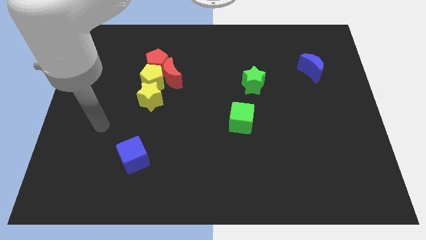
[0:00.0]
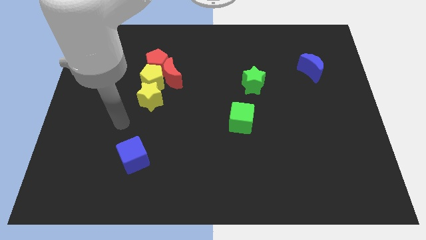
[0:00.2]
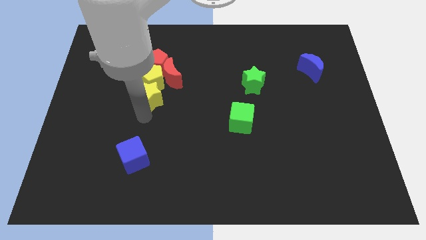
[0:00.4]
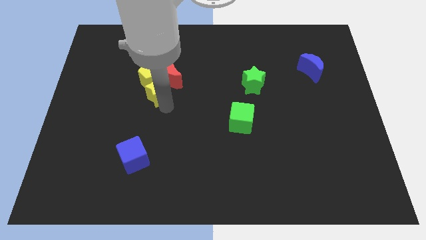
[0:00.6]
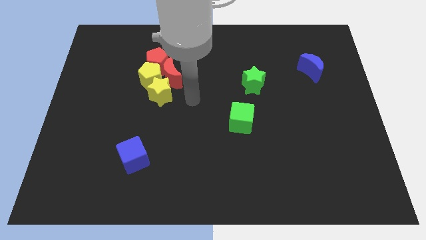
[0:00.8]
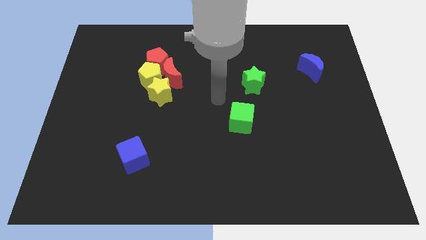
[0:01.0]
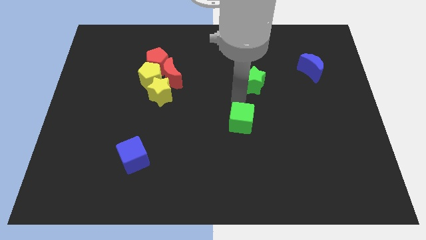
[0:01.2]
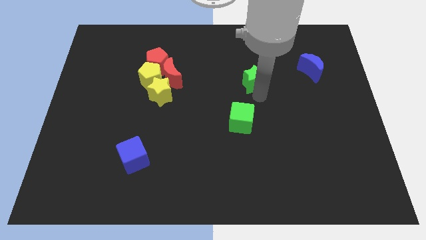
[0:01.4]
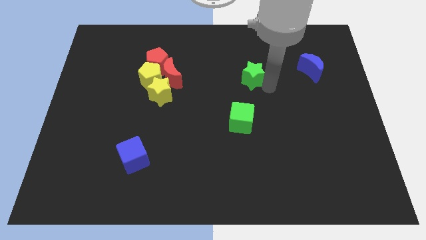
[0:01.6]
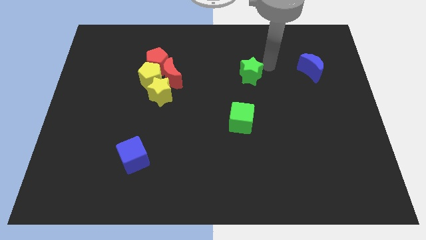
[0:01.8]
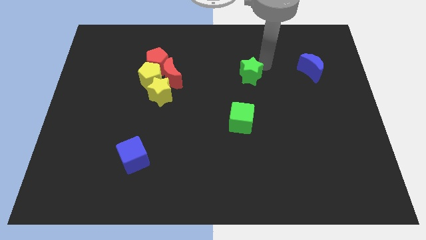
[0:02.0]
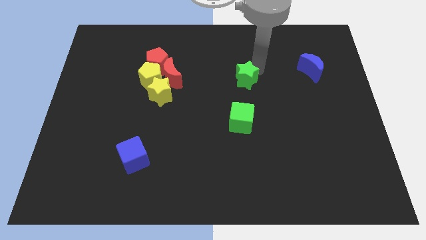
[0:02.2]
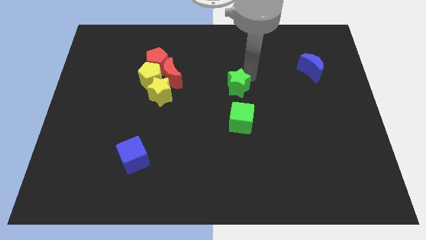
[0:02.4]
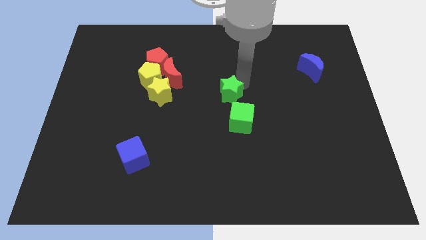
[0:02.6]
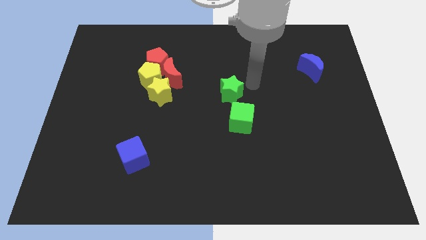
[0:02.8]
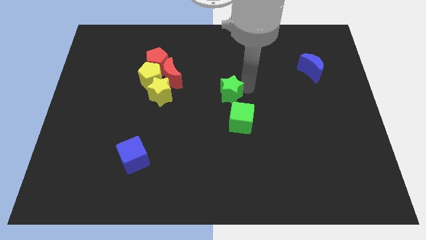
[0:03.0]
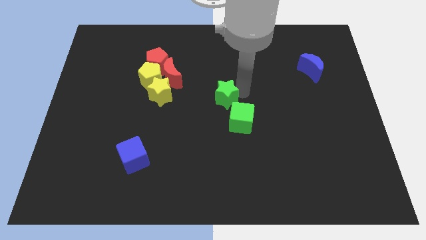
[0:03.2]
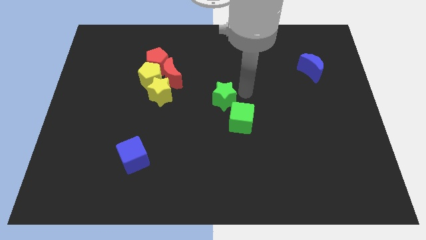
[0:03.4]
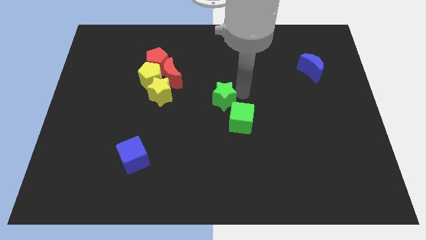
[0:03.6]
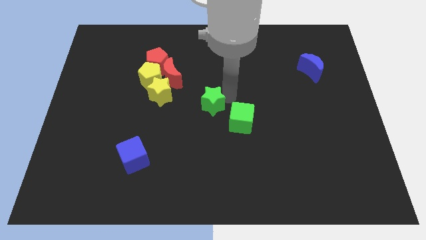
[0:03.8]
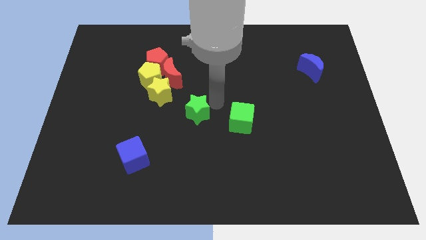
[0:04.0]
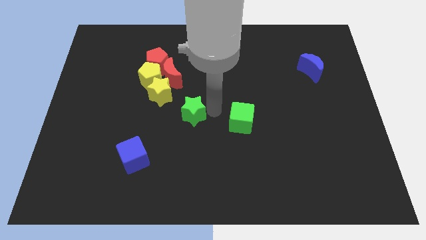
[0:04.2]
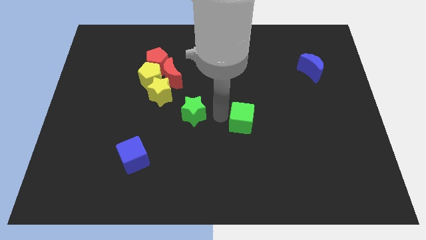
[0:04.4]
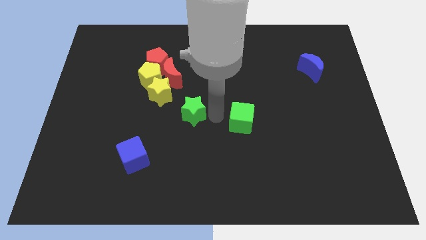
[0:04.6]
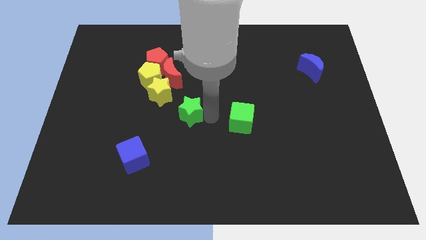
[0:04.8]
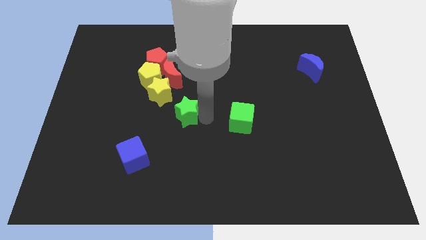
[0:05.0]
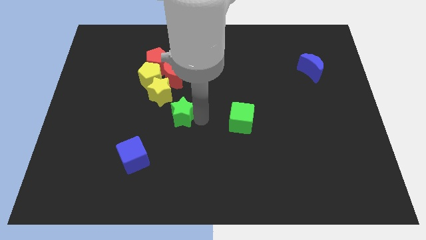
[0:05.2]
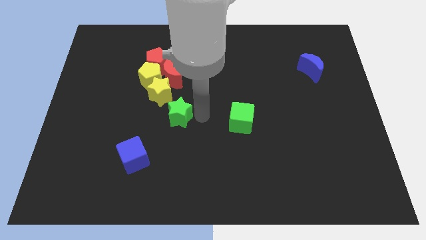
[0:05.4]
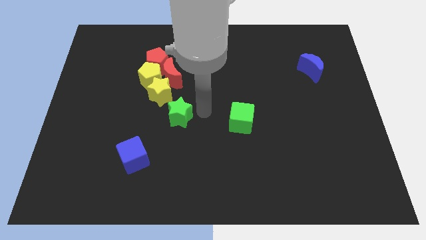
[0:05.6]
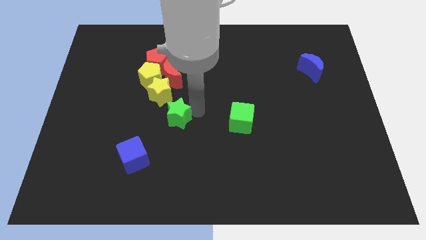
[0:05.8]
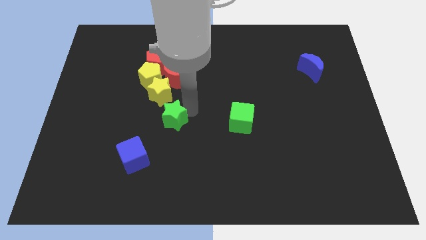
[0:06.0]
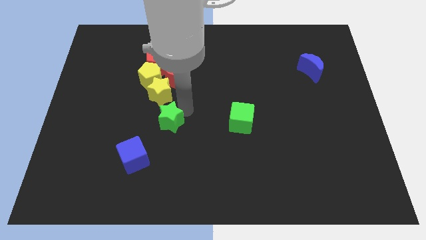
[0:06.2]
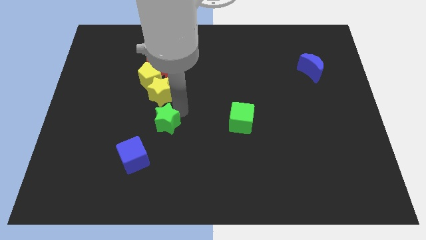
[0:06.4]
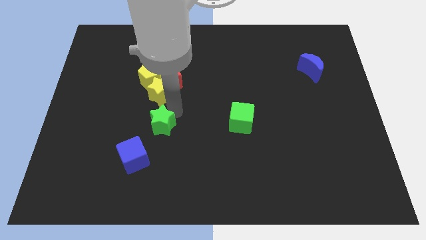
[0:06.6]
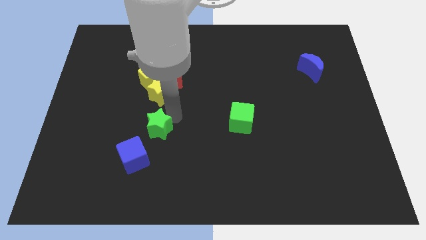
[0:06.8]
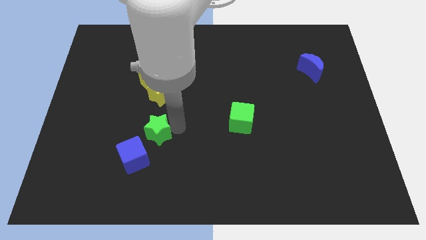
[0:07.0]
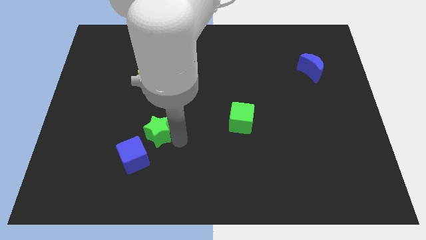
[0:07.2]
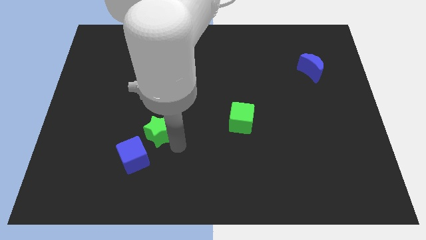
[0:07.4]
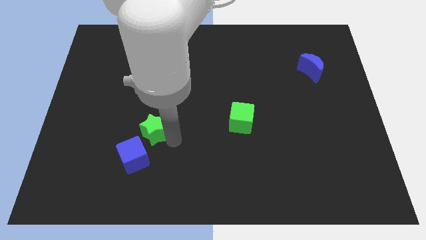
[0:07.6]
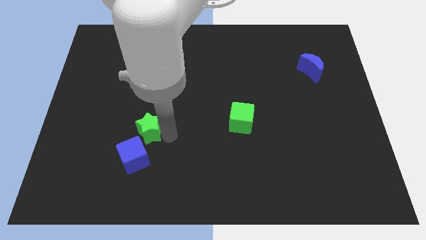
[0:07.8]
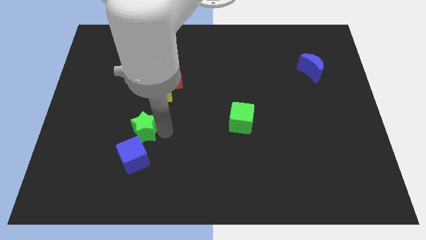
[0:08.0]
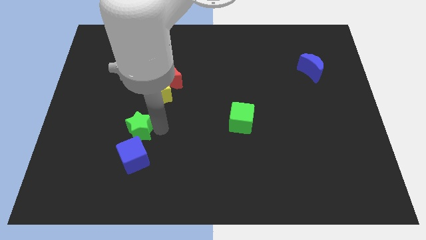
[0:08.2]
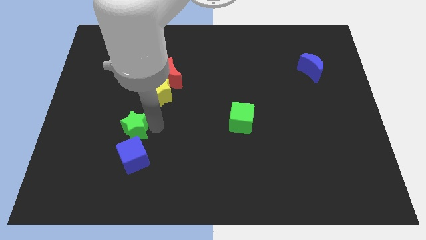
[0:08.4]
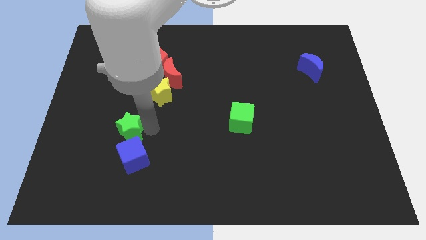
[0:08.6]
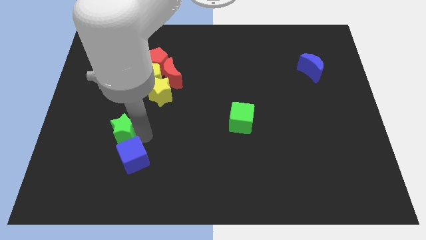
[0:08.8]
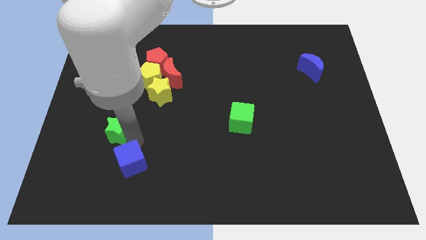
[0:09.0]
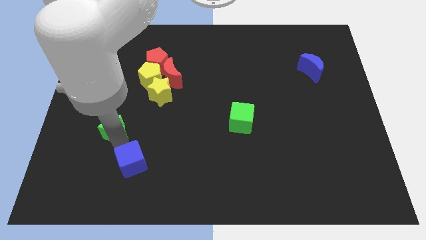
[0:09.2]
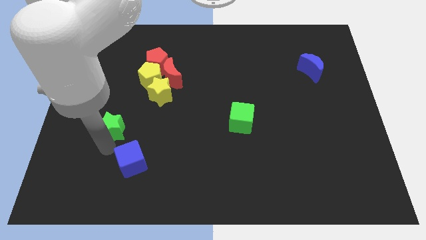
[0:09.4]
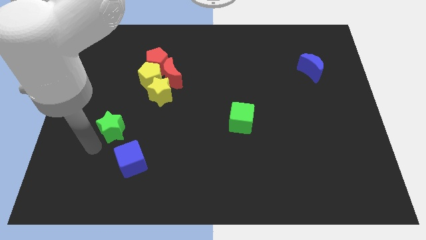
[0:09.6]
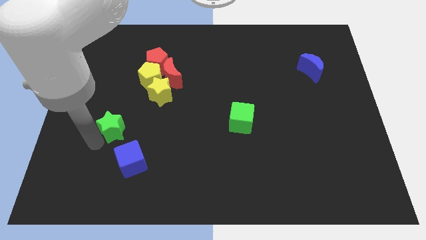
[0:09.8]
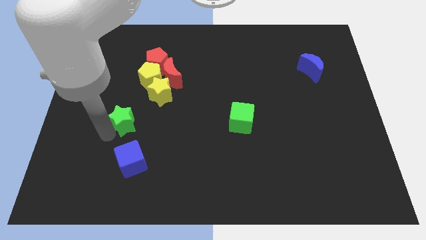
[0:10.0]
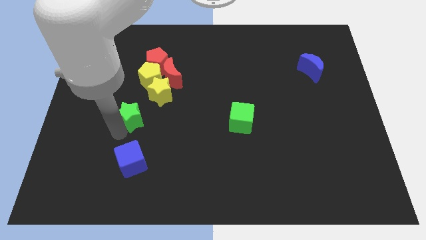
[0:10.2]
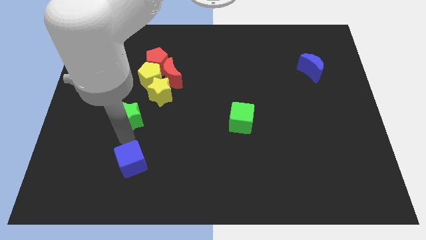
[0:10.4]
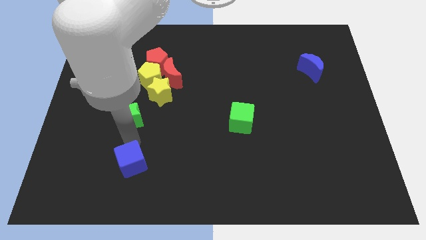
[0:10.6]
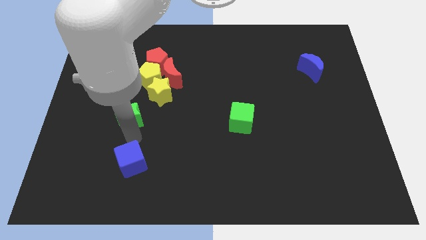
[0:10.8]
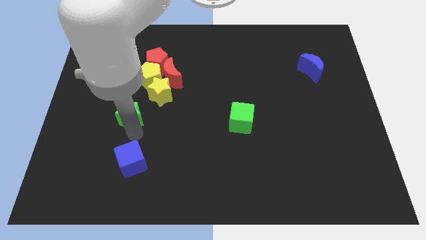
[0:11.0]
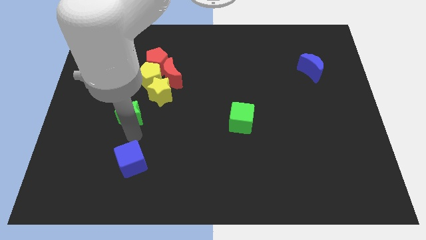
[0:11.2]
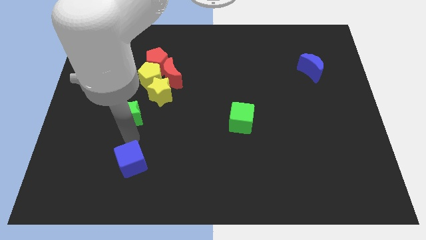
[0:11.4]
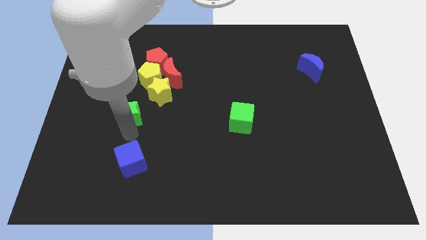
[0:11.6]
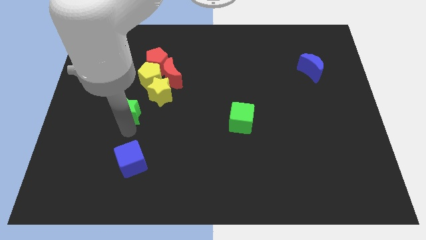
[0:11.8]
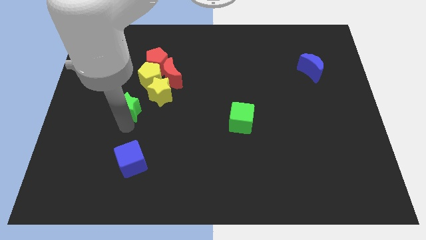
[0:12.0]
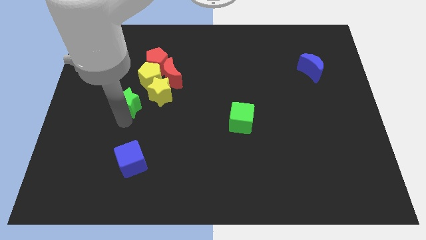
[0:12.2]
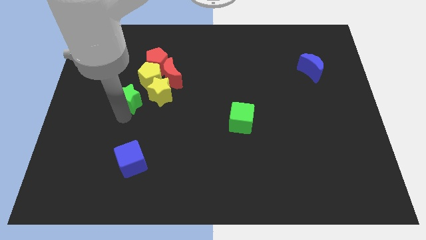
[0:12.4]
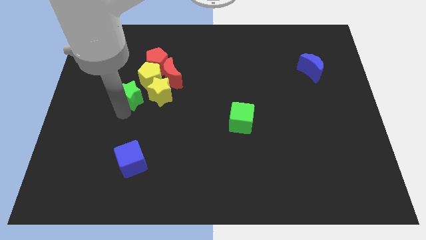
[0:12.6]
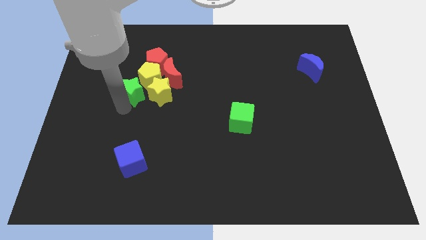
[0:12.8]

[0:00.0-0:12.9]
put the green star next to the yellow pentagon

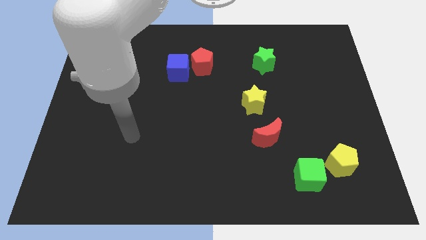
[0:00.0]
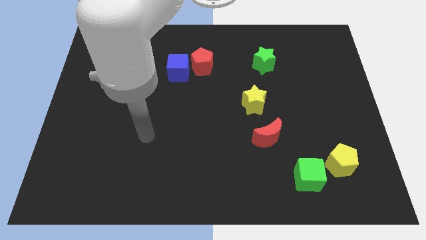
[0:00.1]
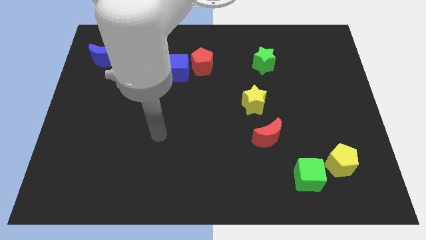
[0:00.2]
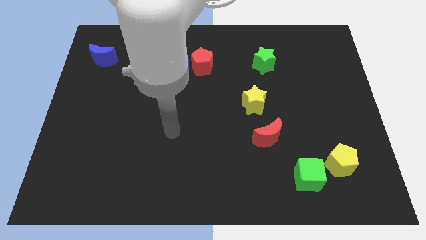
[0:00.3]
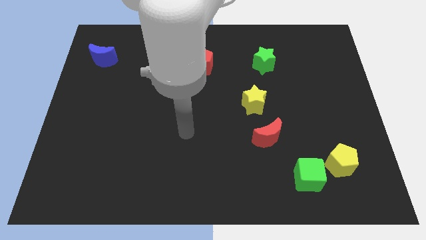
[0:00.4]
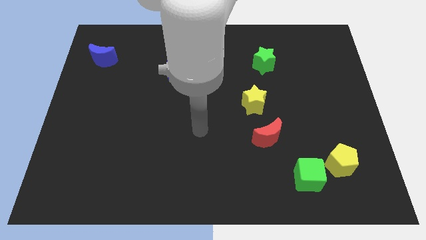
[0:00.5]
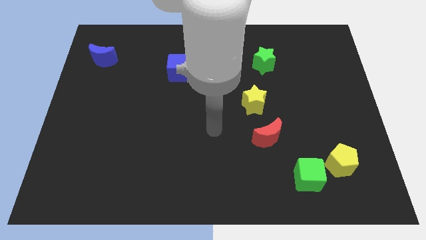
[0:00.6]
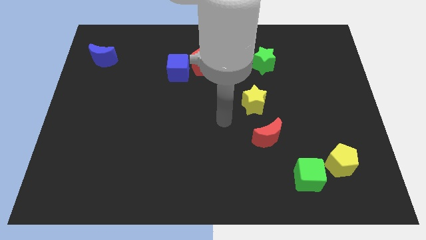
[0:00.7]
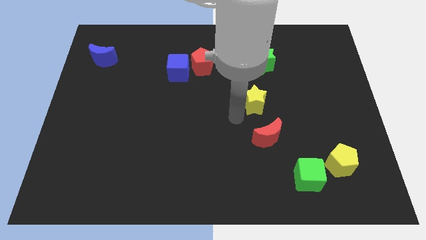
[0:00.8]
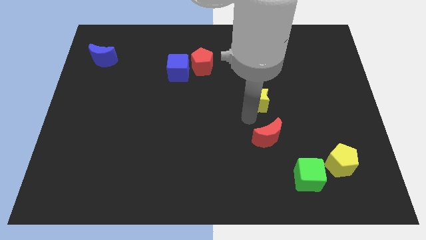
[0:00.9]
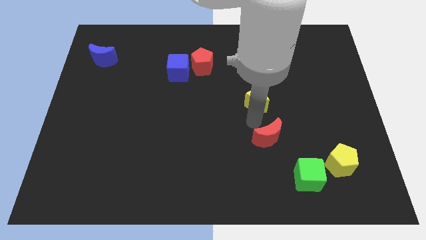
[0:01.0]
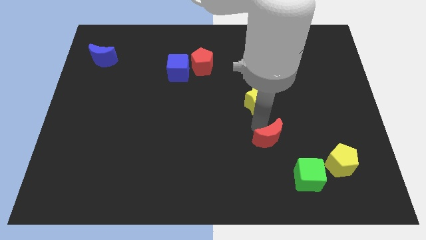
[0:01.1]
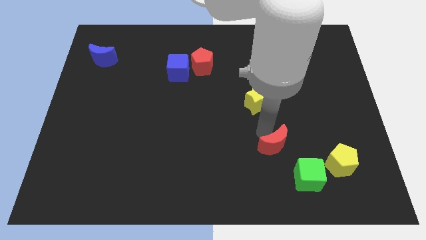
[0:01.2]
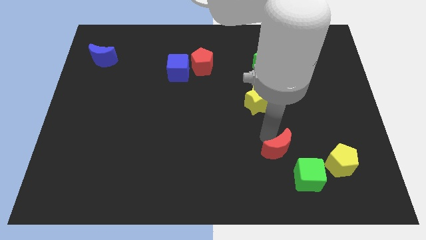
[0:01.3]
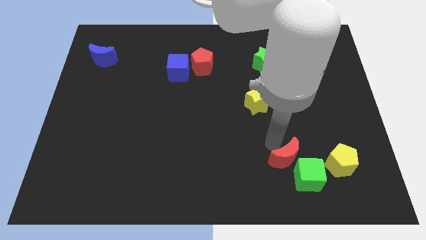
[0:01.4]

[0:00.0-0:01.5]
move the red moon next to the green cube
